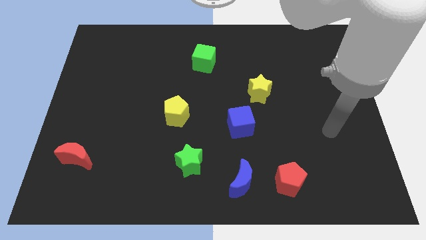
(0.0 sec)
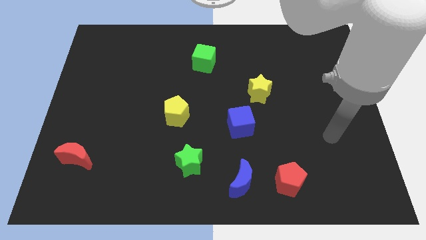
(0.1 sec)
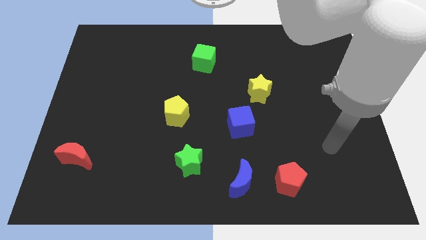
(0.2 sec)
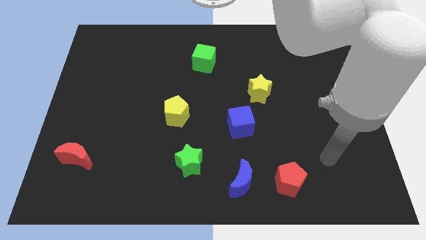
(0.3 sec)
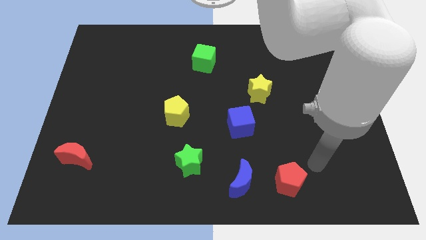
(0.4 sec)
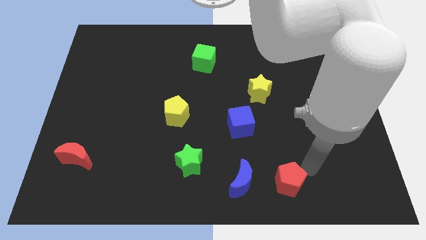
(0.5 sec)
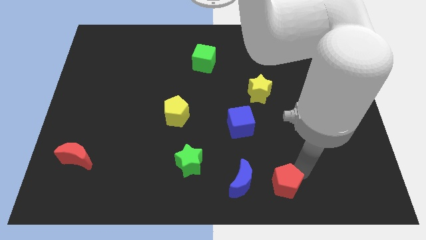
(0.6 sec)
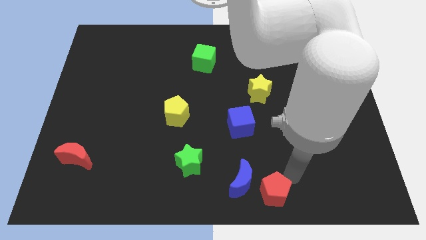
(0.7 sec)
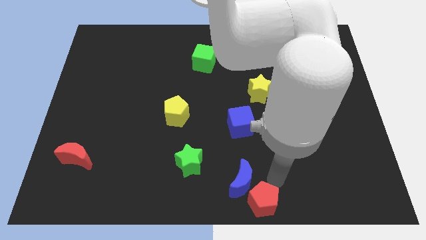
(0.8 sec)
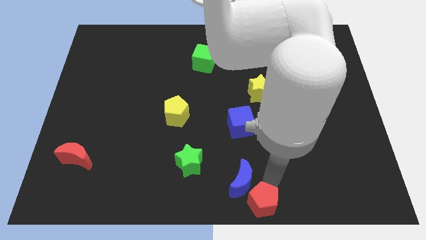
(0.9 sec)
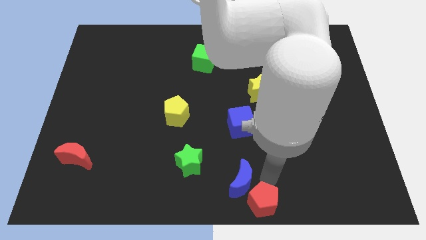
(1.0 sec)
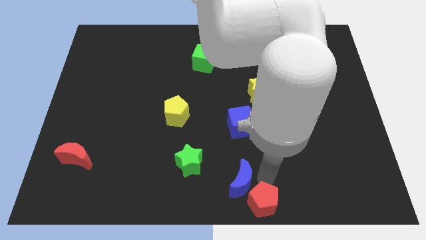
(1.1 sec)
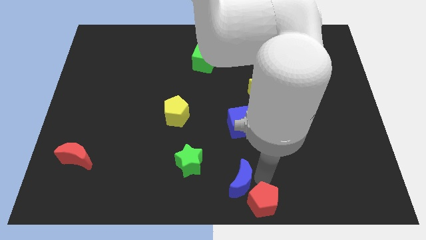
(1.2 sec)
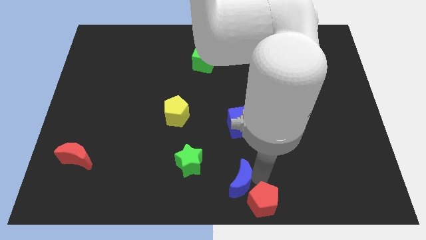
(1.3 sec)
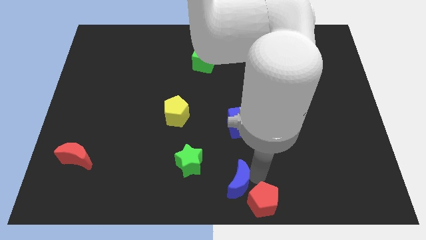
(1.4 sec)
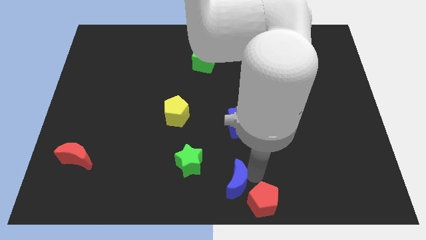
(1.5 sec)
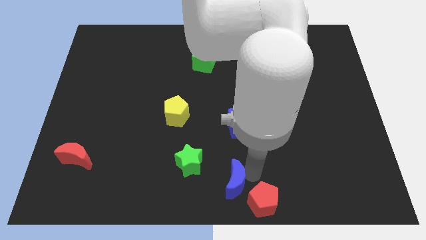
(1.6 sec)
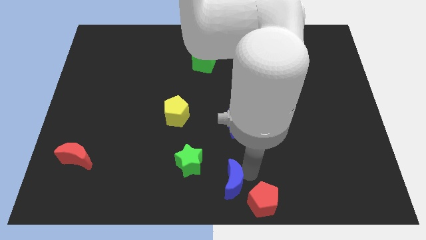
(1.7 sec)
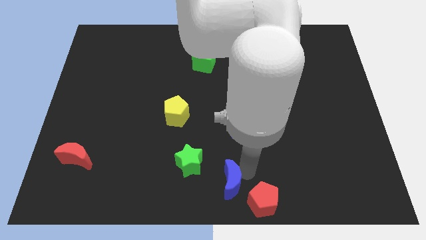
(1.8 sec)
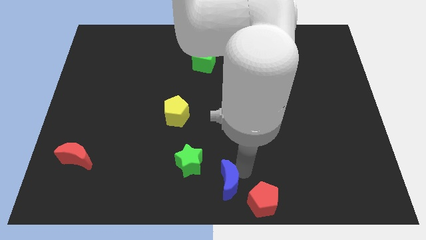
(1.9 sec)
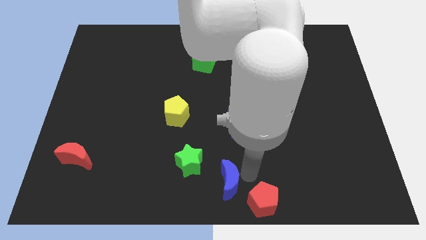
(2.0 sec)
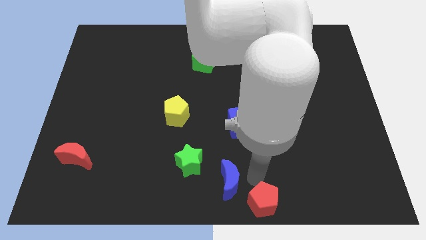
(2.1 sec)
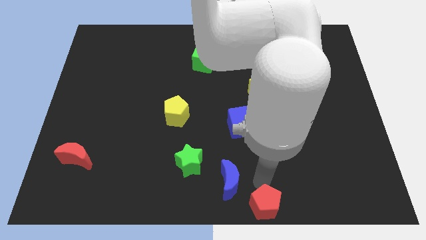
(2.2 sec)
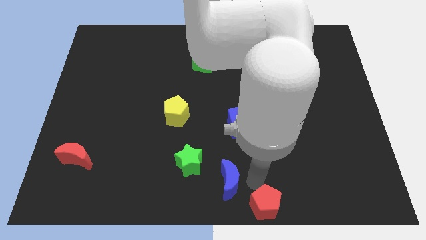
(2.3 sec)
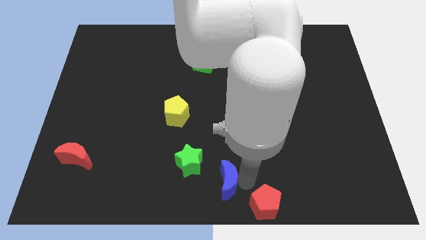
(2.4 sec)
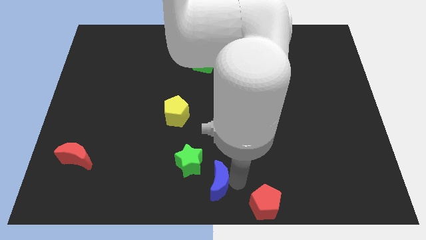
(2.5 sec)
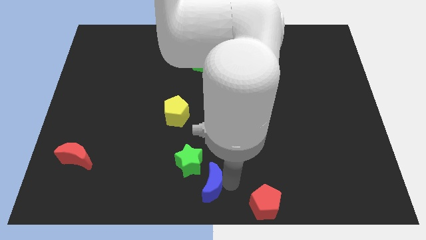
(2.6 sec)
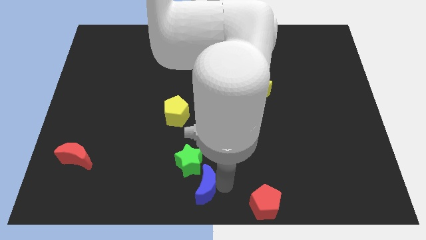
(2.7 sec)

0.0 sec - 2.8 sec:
push the blue moon slightly to the left

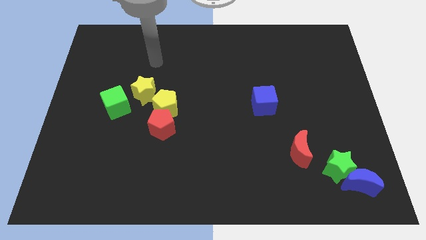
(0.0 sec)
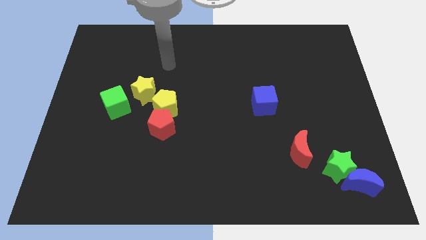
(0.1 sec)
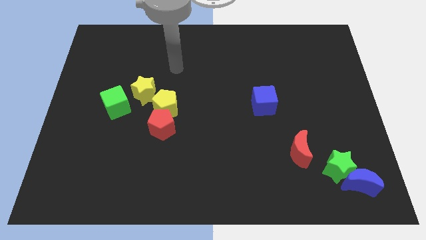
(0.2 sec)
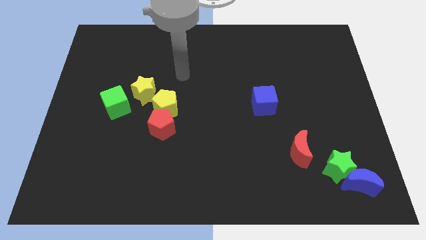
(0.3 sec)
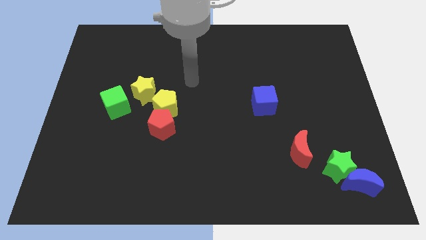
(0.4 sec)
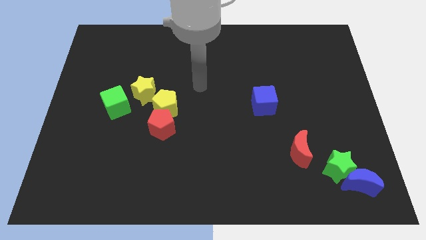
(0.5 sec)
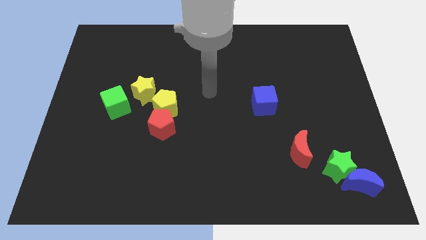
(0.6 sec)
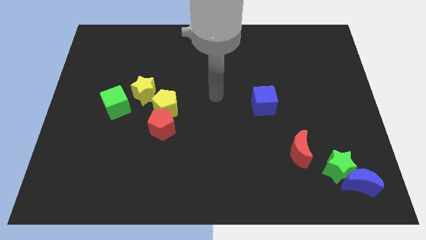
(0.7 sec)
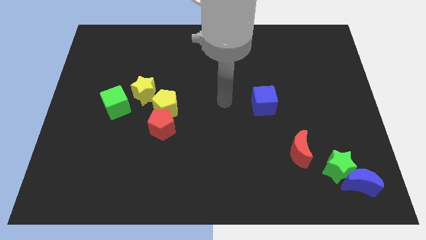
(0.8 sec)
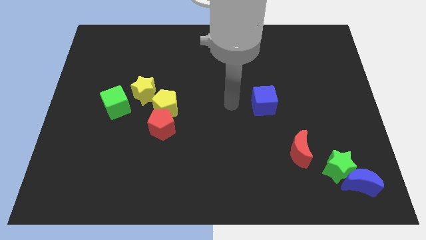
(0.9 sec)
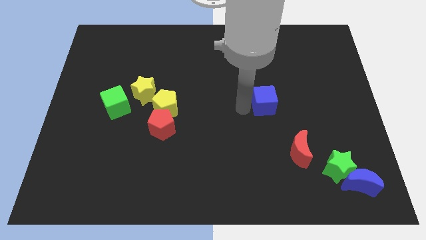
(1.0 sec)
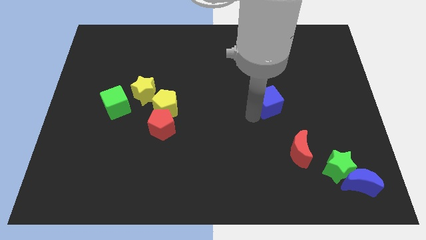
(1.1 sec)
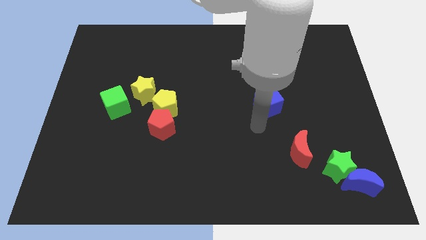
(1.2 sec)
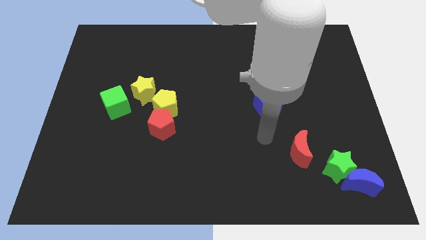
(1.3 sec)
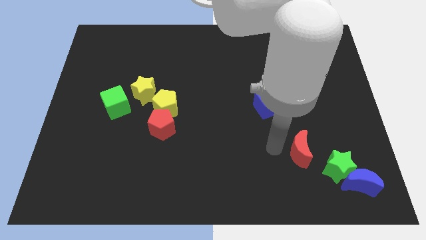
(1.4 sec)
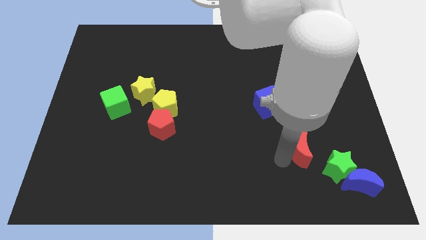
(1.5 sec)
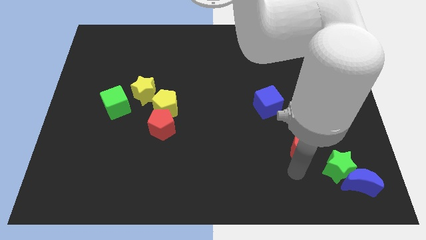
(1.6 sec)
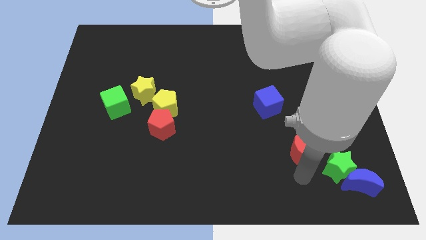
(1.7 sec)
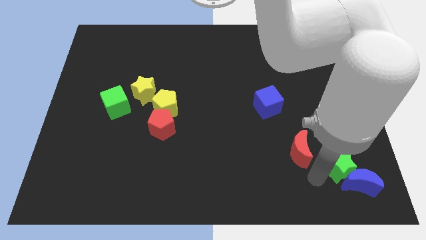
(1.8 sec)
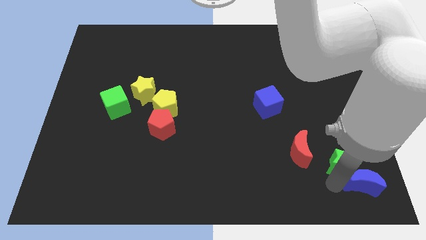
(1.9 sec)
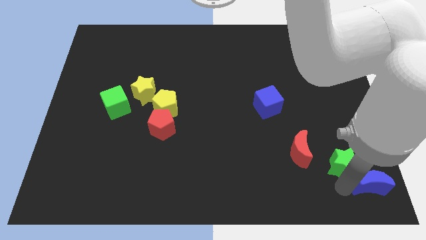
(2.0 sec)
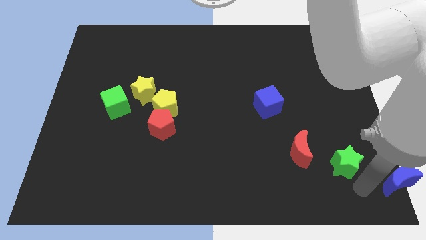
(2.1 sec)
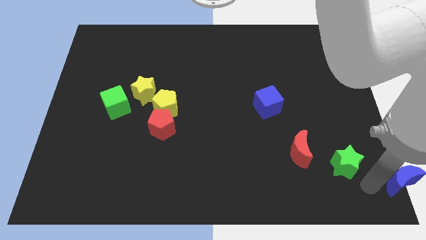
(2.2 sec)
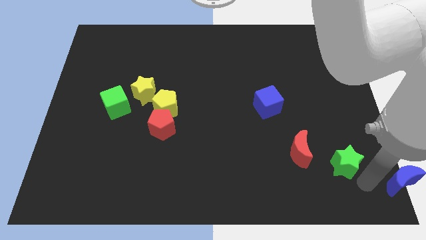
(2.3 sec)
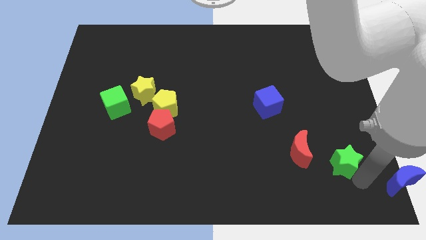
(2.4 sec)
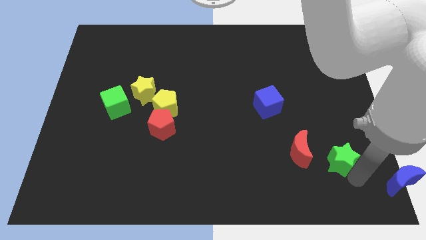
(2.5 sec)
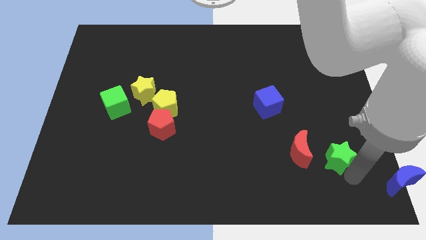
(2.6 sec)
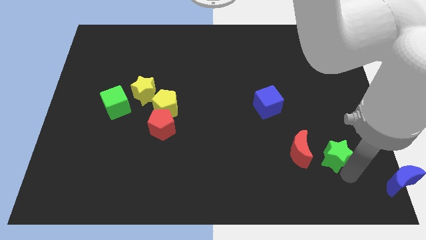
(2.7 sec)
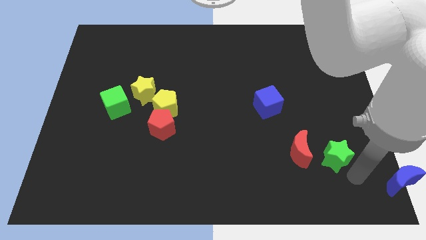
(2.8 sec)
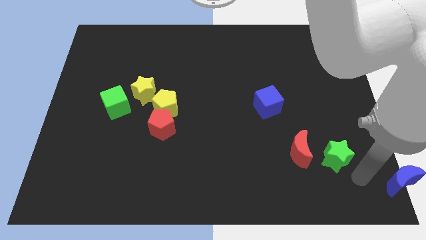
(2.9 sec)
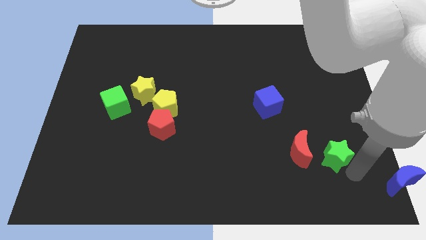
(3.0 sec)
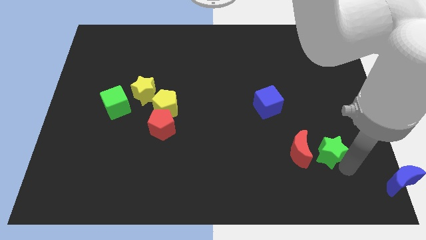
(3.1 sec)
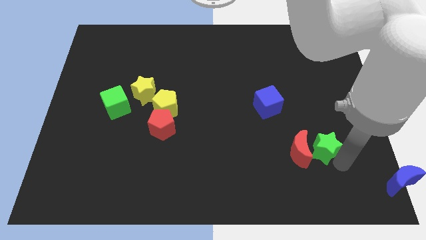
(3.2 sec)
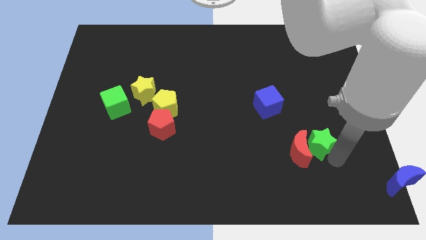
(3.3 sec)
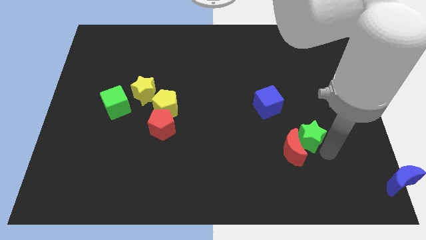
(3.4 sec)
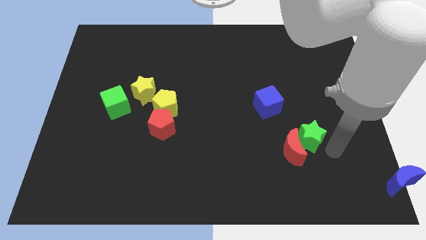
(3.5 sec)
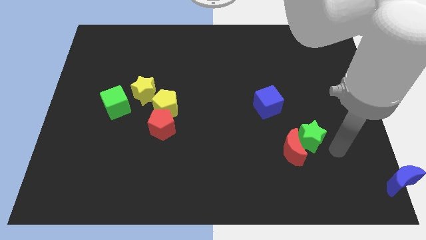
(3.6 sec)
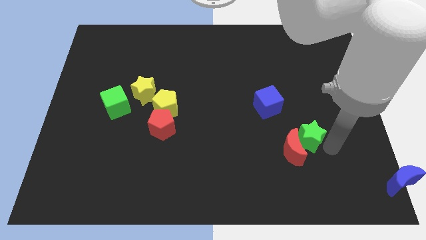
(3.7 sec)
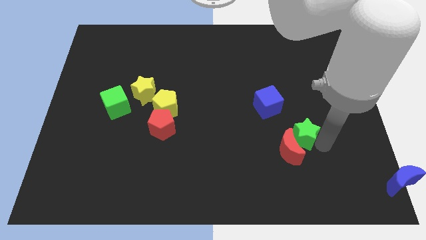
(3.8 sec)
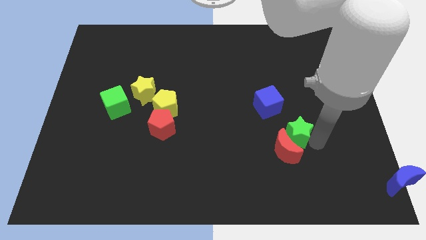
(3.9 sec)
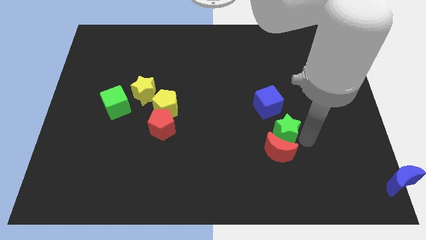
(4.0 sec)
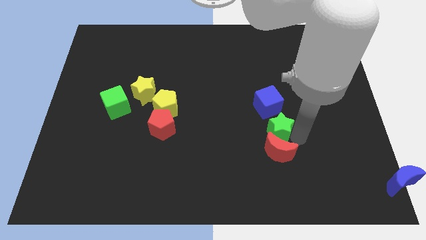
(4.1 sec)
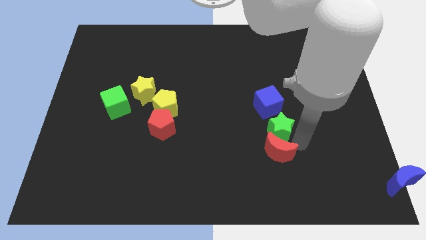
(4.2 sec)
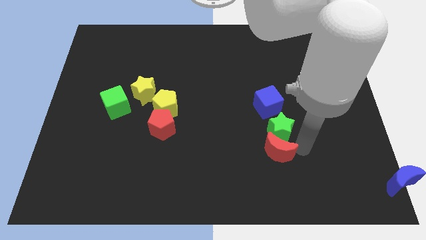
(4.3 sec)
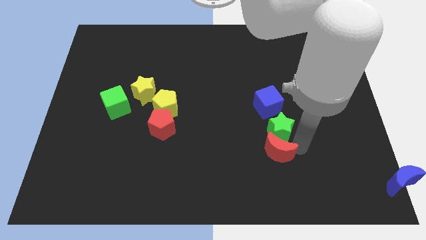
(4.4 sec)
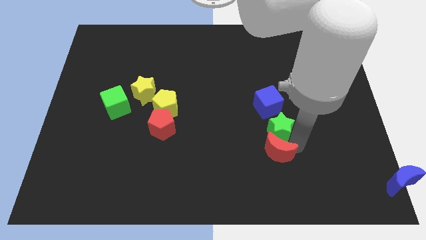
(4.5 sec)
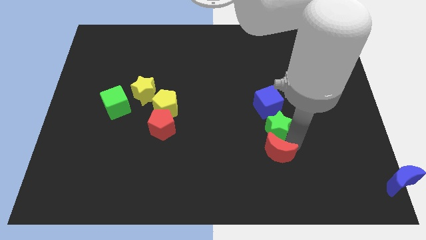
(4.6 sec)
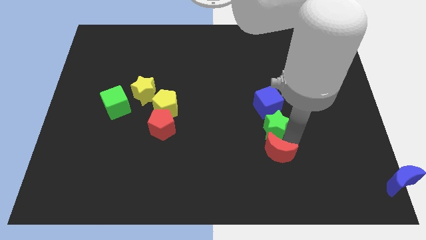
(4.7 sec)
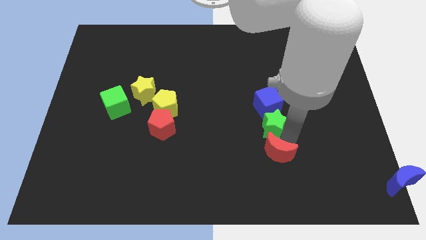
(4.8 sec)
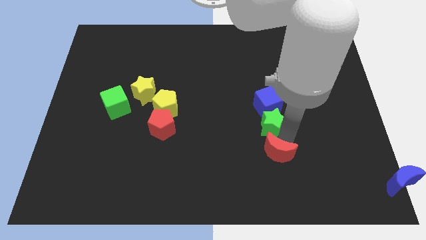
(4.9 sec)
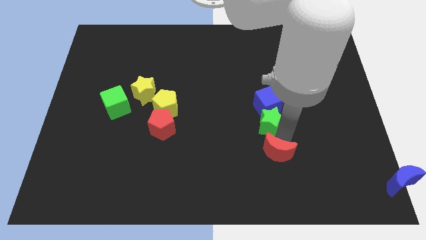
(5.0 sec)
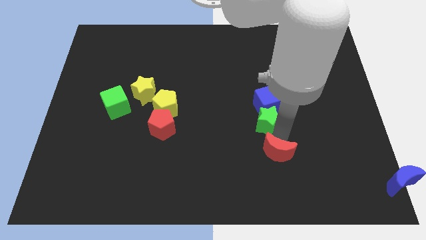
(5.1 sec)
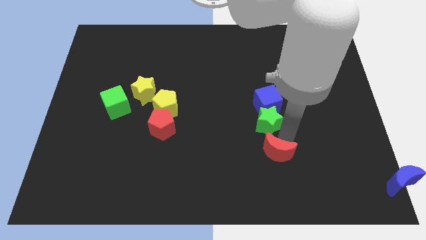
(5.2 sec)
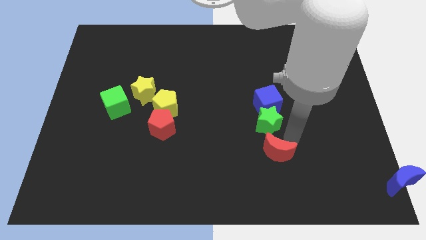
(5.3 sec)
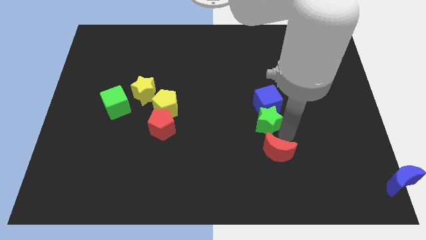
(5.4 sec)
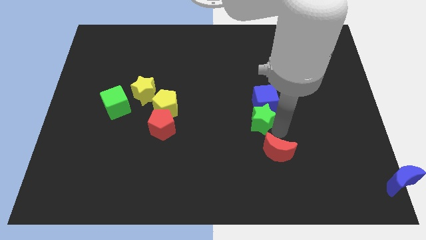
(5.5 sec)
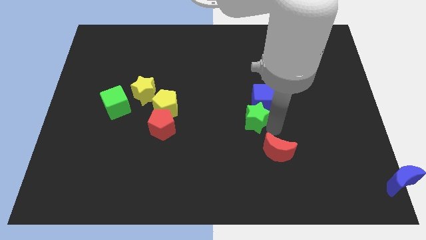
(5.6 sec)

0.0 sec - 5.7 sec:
push the green star upwards and then left

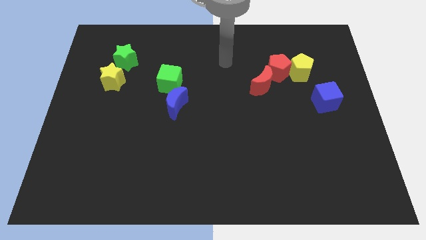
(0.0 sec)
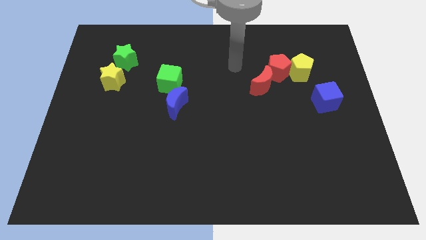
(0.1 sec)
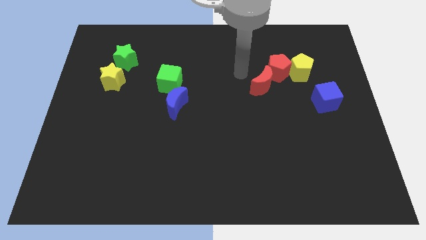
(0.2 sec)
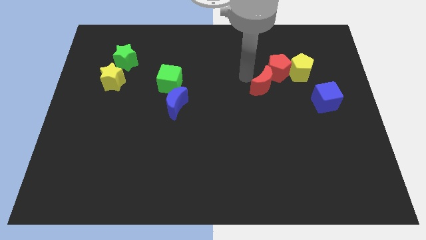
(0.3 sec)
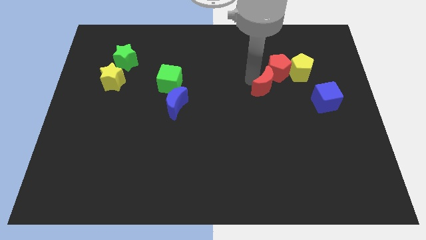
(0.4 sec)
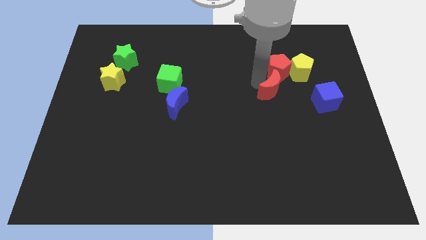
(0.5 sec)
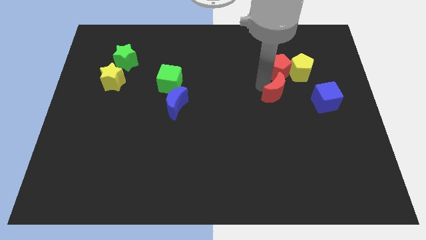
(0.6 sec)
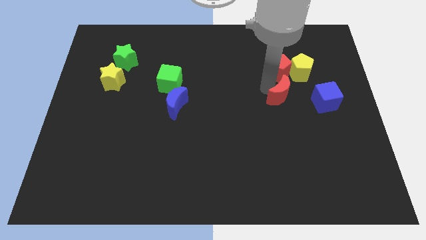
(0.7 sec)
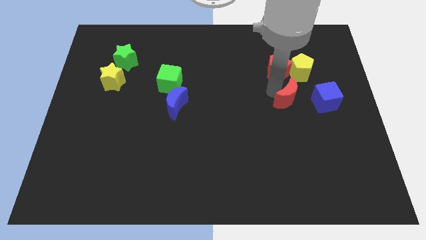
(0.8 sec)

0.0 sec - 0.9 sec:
slide the red moon a little bit downwards and right diagonally
